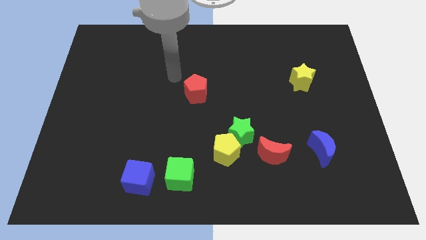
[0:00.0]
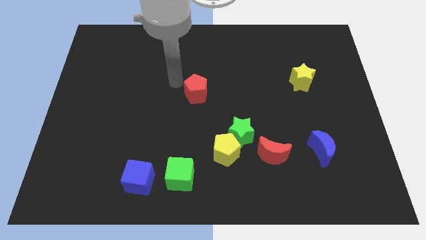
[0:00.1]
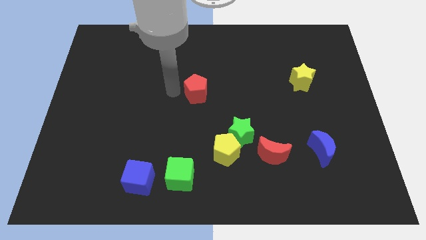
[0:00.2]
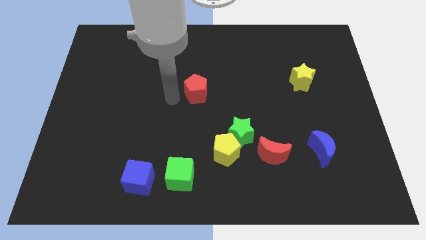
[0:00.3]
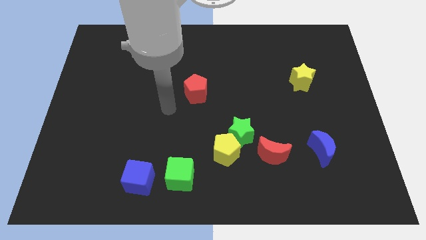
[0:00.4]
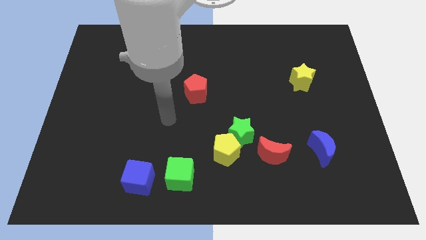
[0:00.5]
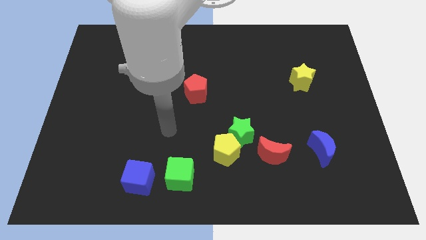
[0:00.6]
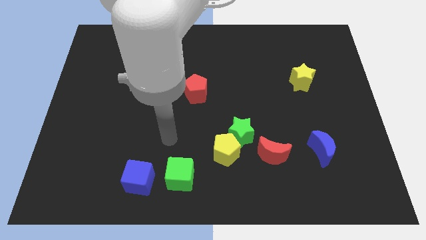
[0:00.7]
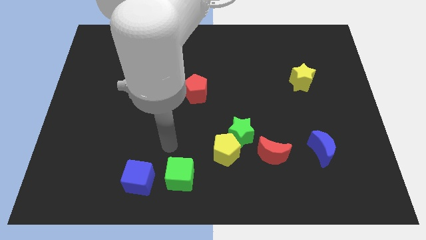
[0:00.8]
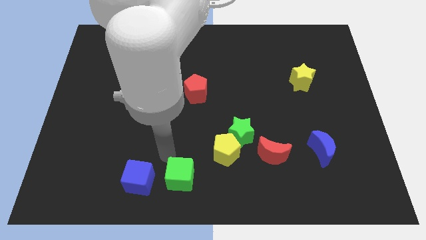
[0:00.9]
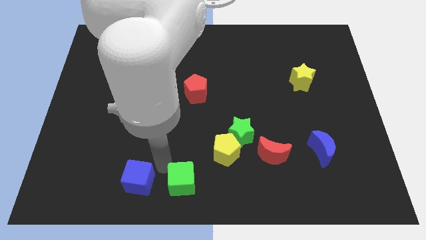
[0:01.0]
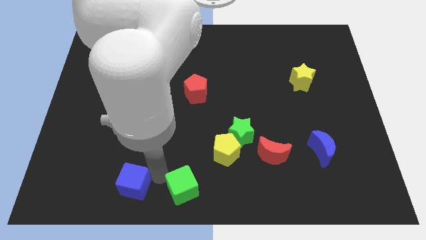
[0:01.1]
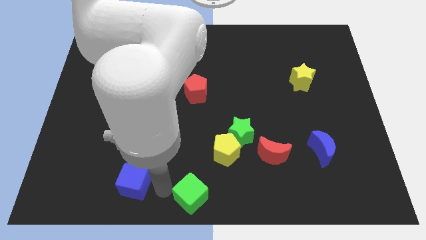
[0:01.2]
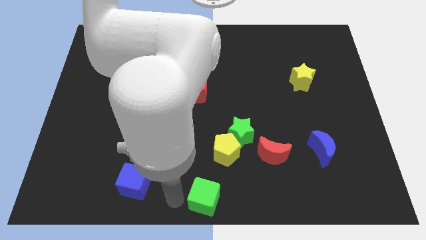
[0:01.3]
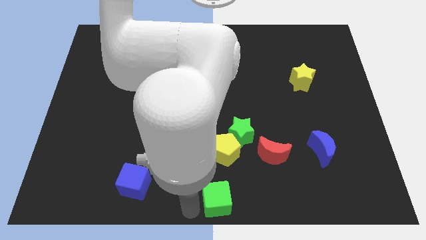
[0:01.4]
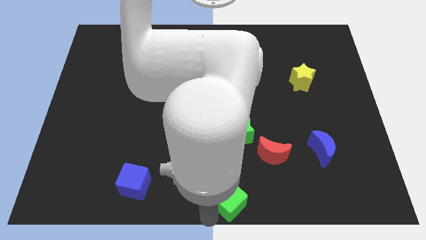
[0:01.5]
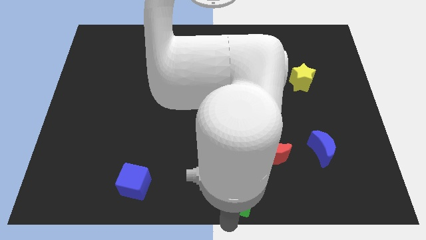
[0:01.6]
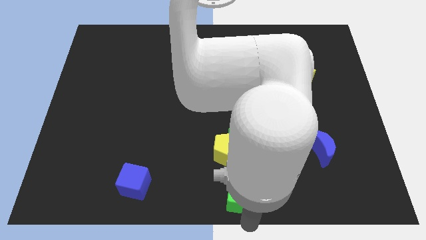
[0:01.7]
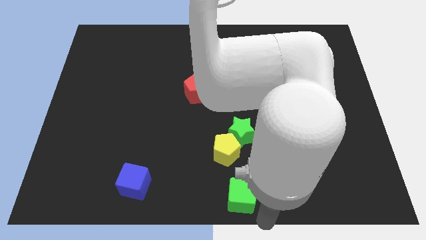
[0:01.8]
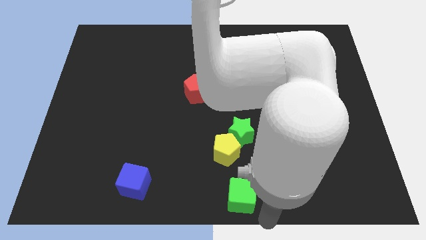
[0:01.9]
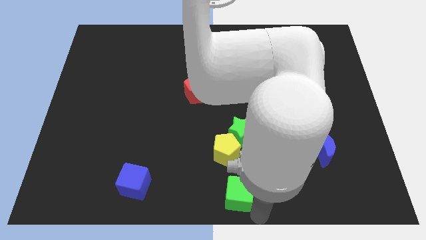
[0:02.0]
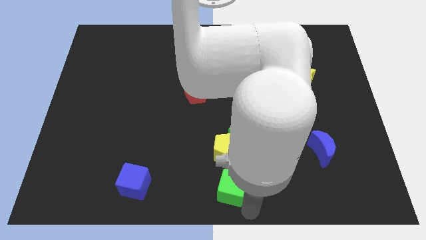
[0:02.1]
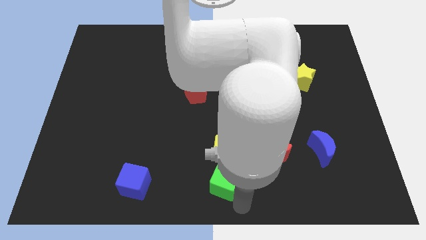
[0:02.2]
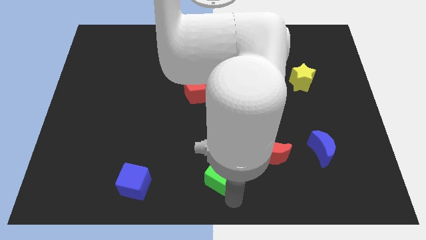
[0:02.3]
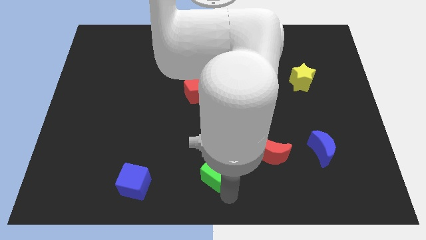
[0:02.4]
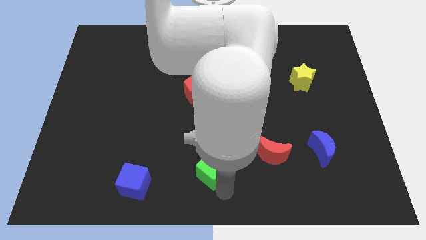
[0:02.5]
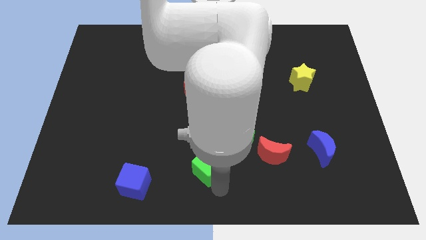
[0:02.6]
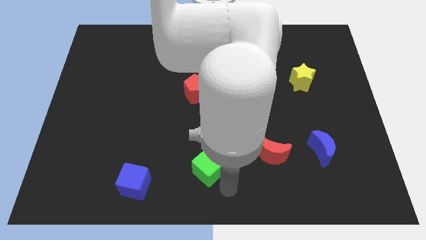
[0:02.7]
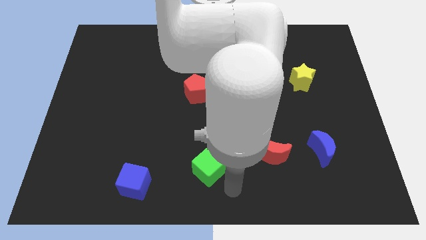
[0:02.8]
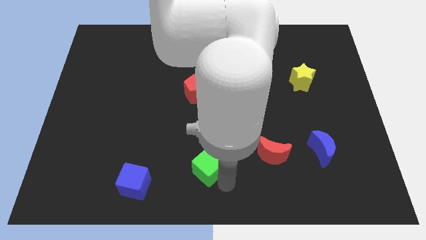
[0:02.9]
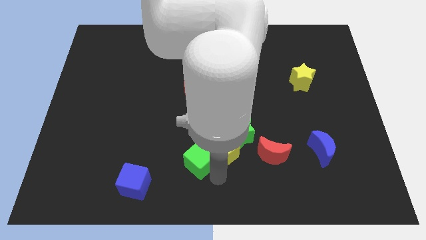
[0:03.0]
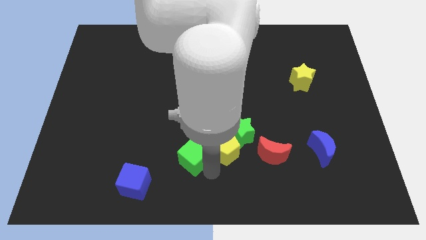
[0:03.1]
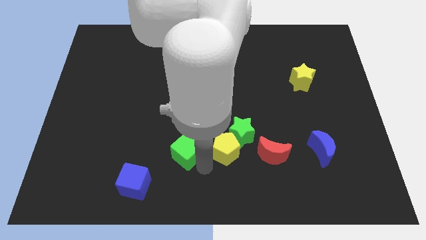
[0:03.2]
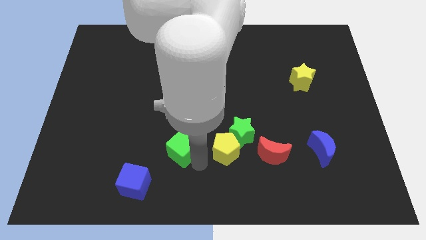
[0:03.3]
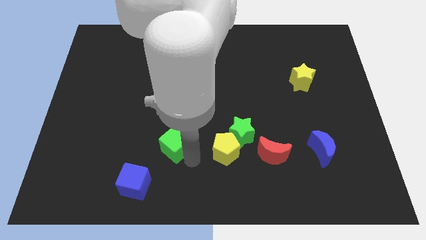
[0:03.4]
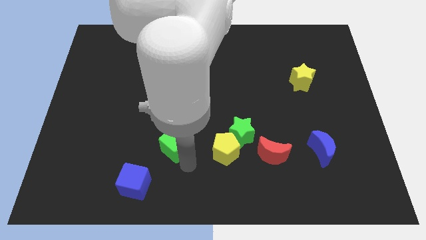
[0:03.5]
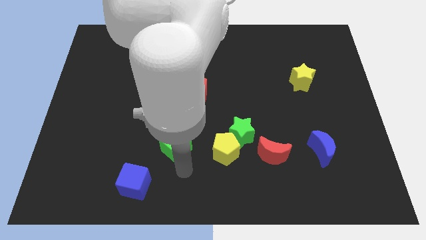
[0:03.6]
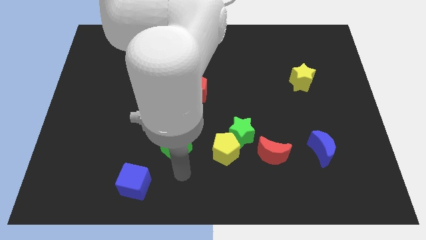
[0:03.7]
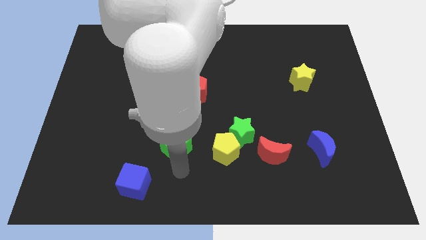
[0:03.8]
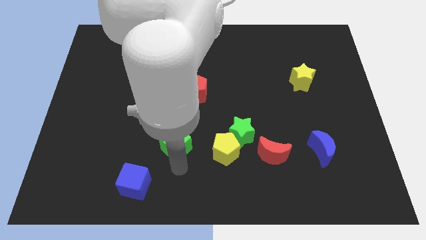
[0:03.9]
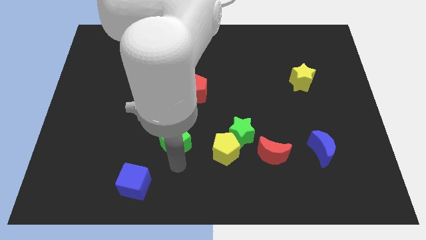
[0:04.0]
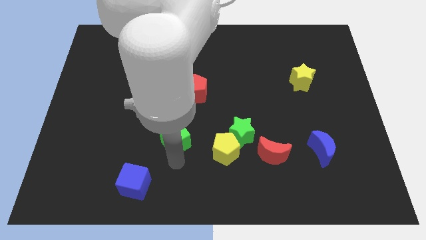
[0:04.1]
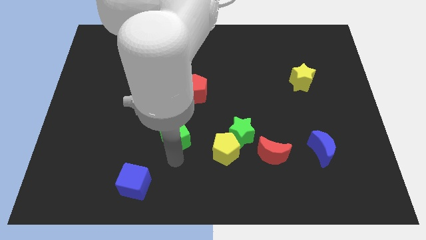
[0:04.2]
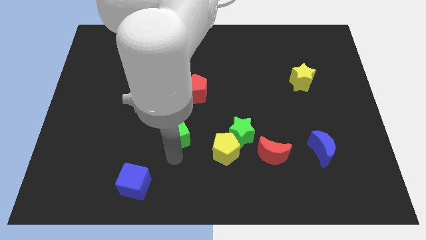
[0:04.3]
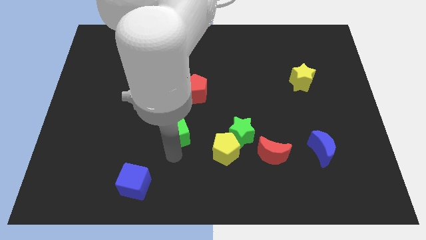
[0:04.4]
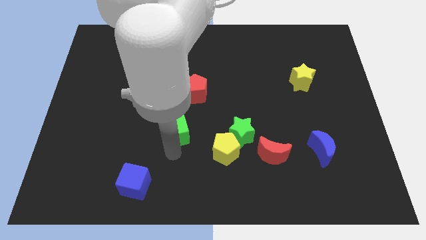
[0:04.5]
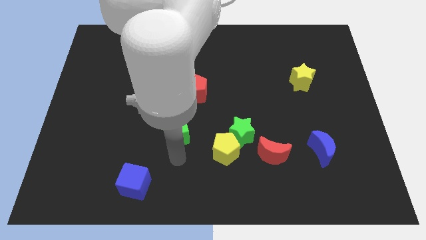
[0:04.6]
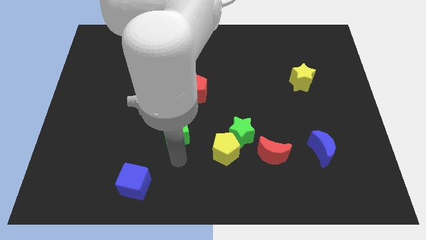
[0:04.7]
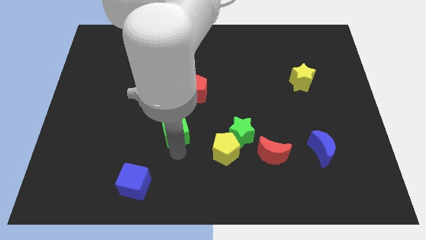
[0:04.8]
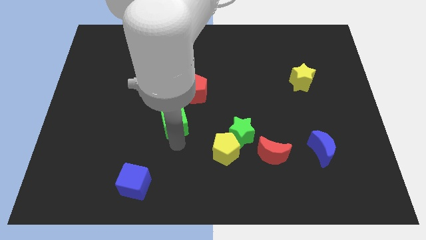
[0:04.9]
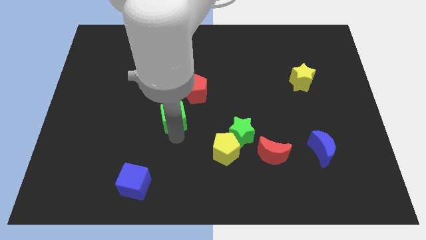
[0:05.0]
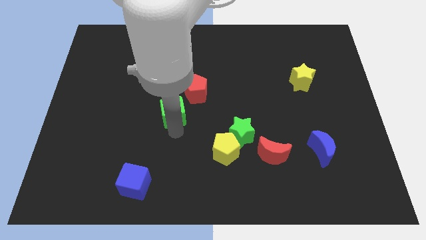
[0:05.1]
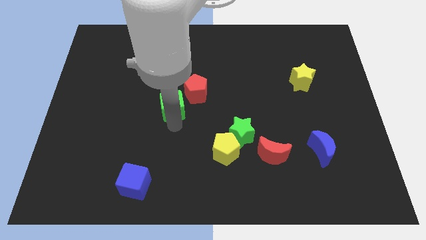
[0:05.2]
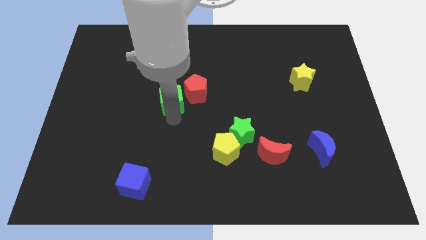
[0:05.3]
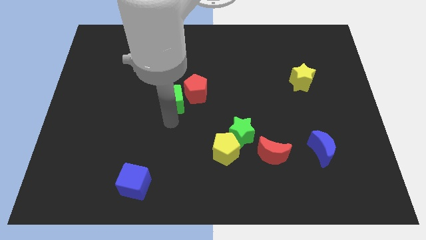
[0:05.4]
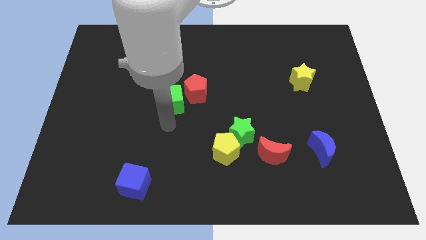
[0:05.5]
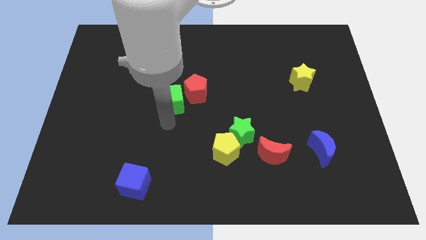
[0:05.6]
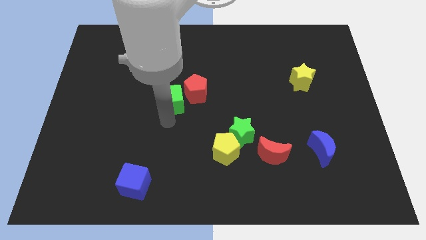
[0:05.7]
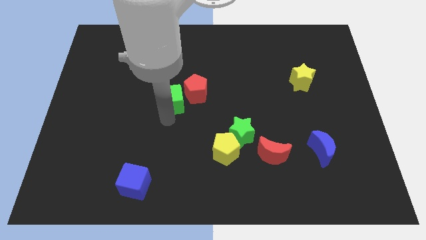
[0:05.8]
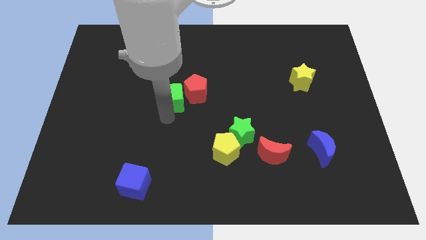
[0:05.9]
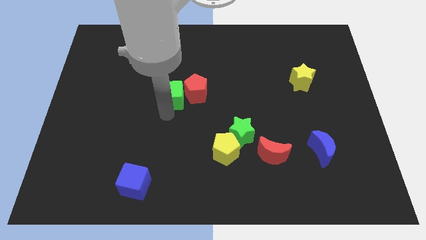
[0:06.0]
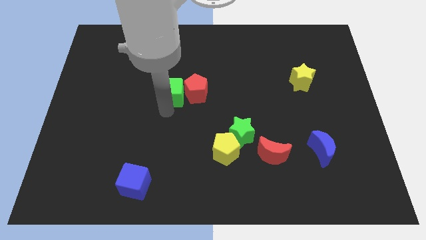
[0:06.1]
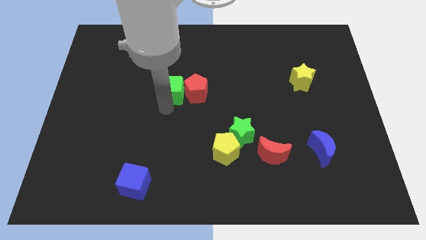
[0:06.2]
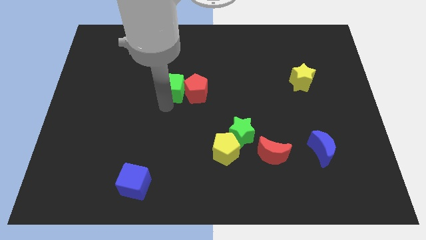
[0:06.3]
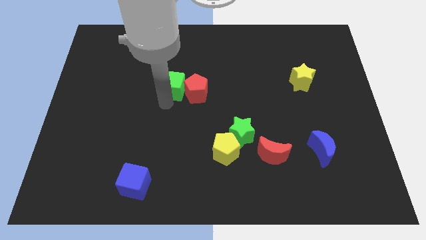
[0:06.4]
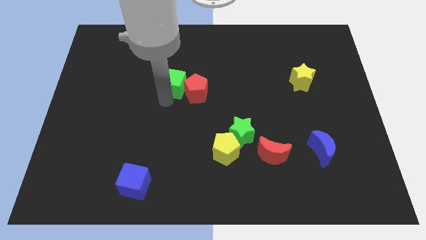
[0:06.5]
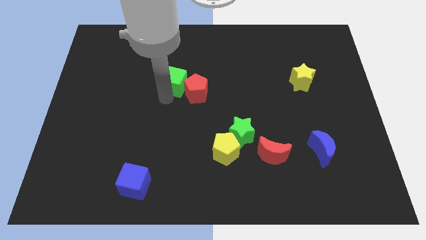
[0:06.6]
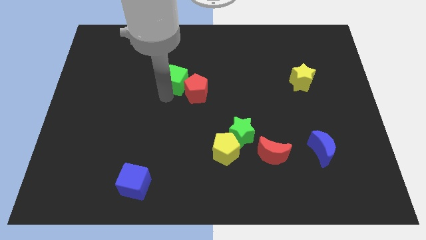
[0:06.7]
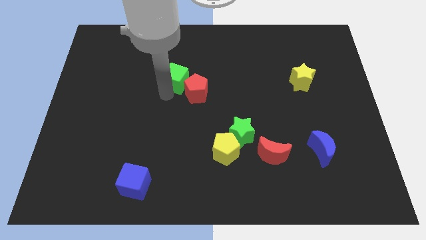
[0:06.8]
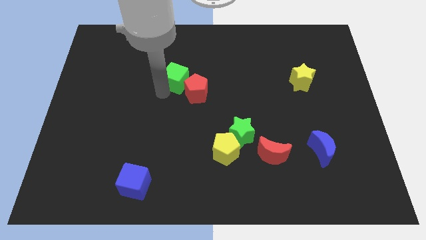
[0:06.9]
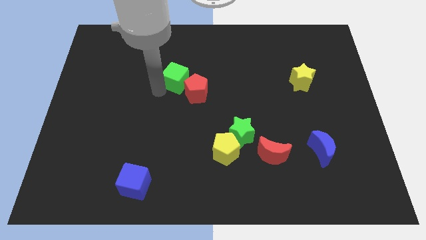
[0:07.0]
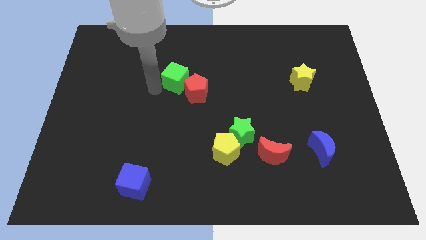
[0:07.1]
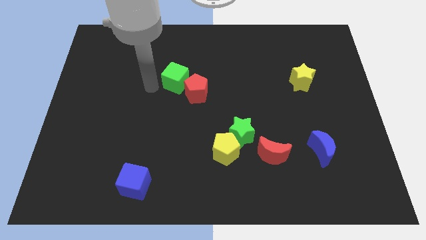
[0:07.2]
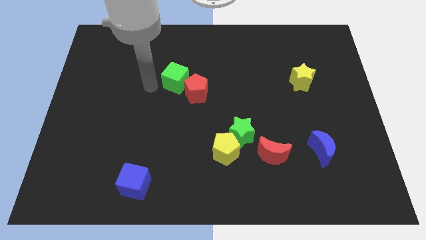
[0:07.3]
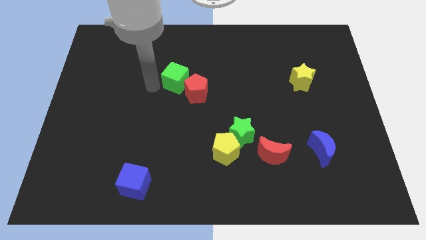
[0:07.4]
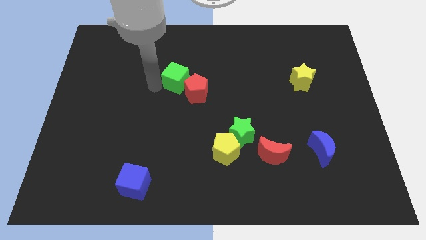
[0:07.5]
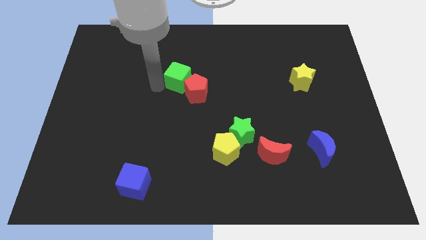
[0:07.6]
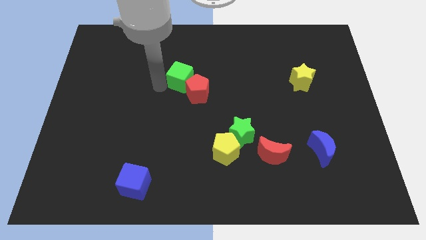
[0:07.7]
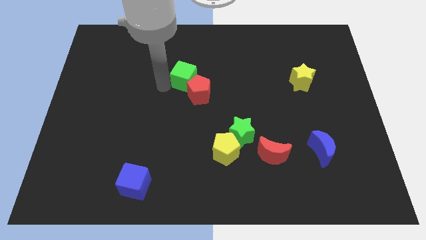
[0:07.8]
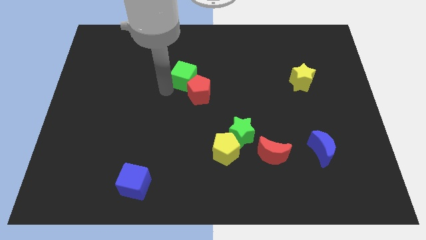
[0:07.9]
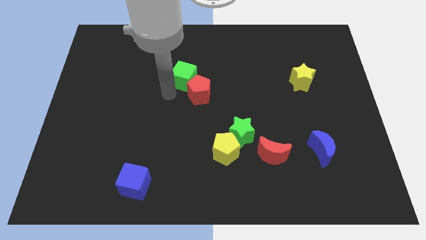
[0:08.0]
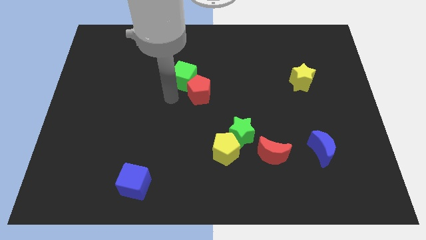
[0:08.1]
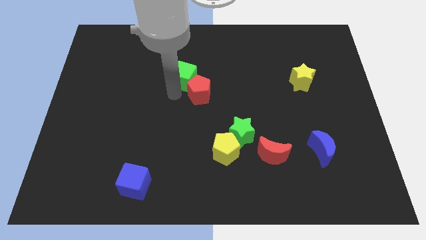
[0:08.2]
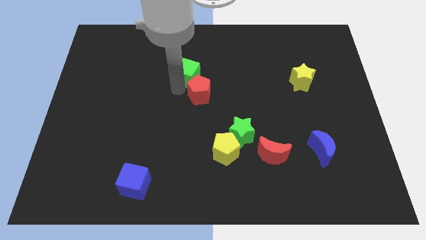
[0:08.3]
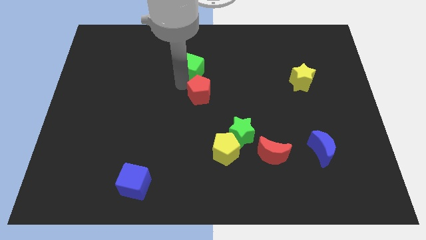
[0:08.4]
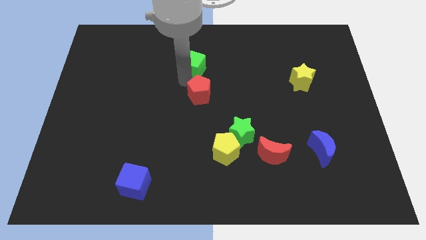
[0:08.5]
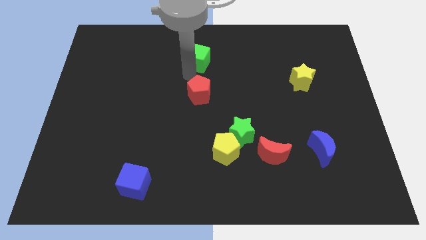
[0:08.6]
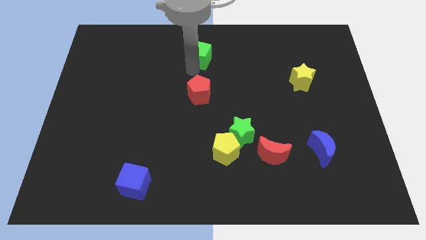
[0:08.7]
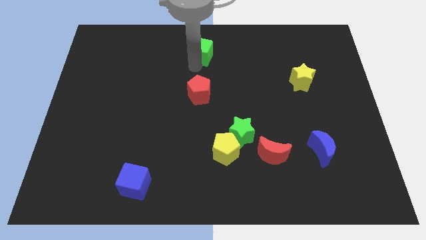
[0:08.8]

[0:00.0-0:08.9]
push the green cube to the top side
